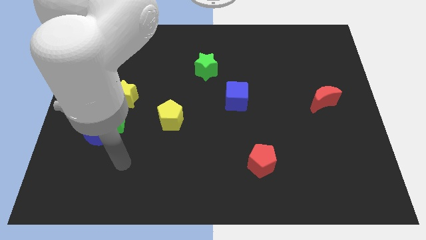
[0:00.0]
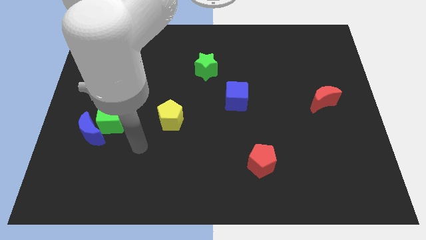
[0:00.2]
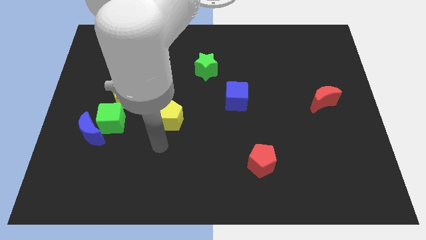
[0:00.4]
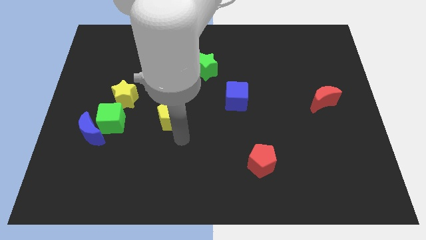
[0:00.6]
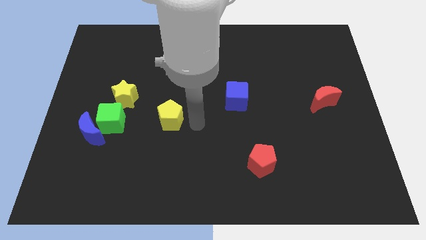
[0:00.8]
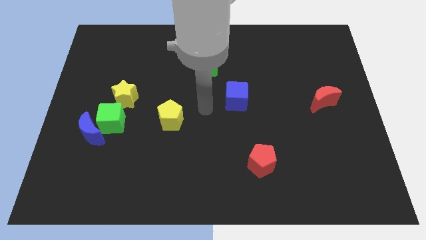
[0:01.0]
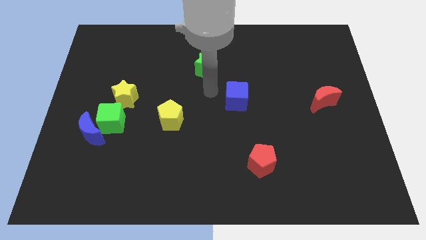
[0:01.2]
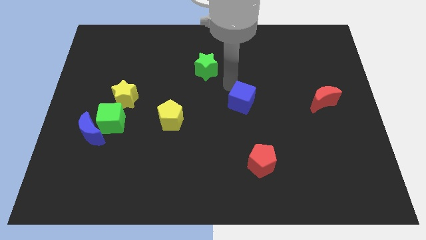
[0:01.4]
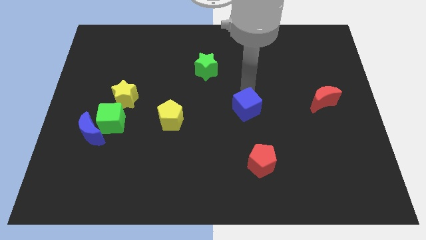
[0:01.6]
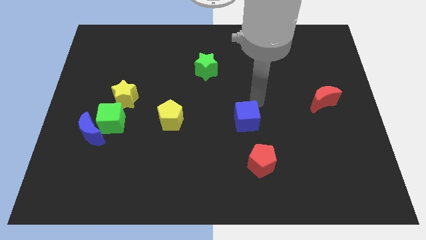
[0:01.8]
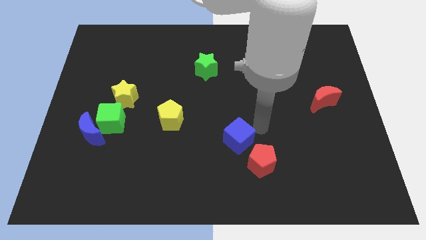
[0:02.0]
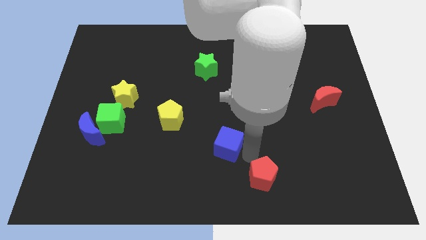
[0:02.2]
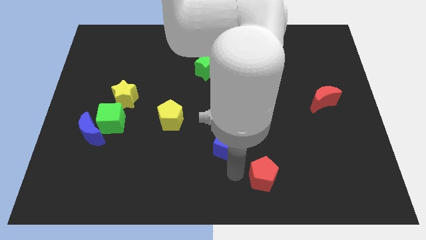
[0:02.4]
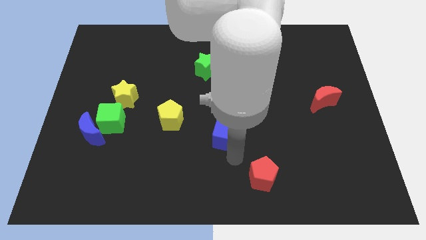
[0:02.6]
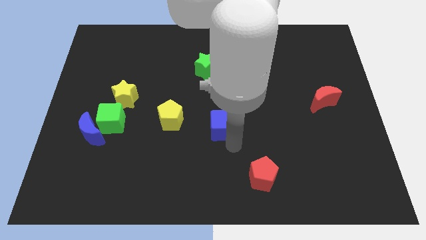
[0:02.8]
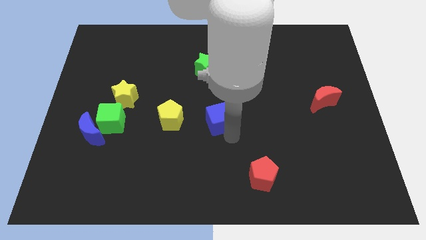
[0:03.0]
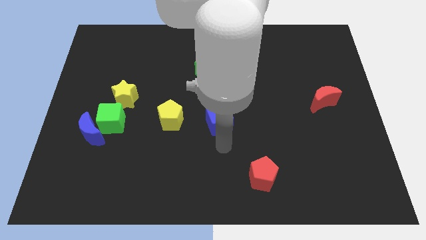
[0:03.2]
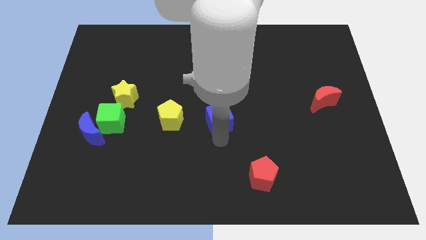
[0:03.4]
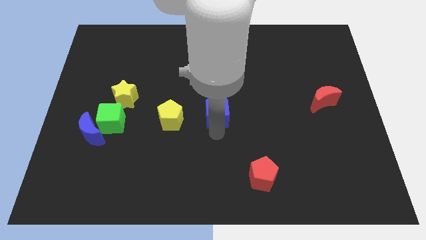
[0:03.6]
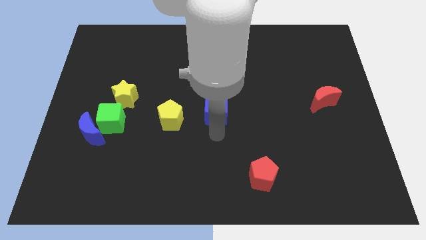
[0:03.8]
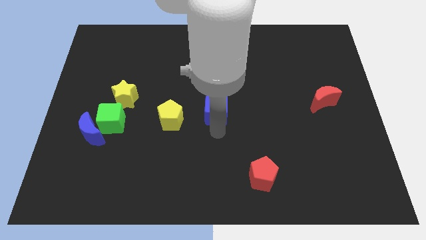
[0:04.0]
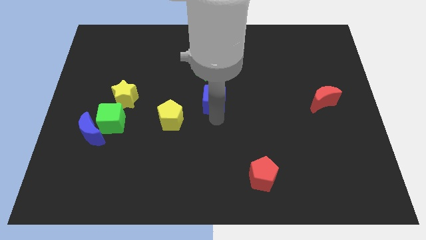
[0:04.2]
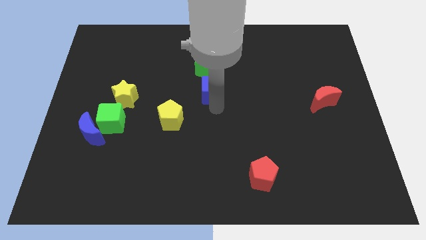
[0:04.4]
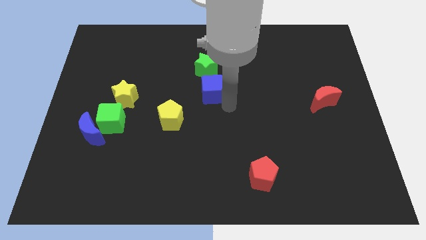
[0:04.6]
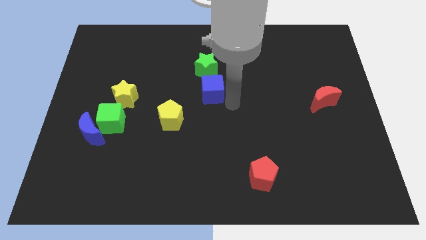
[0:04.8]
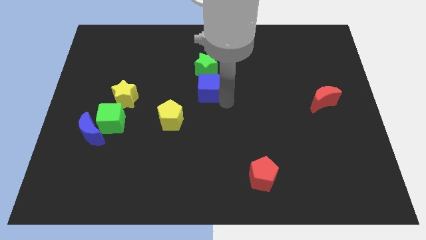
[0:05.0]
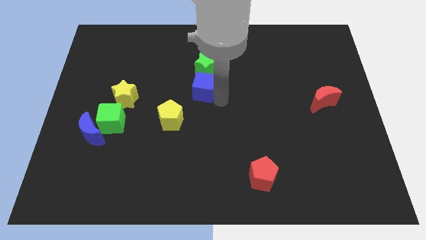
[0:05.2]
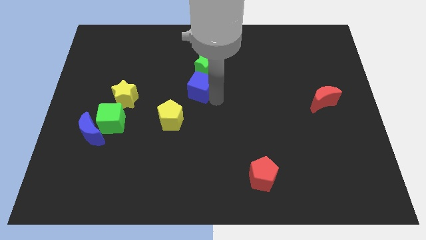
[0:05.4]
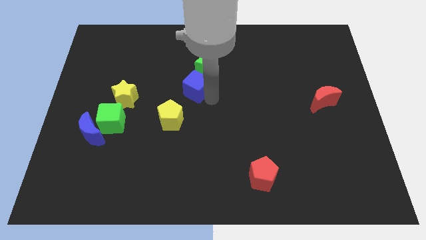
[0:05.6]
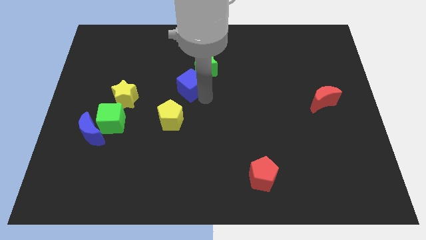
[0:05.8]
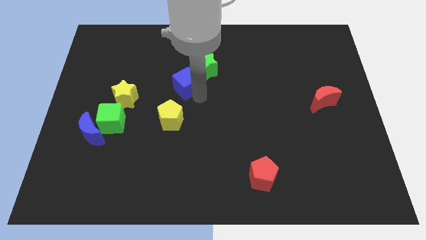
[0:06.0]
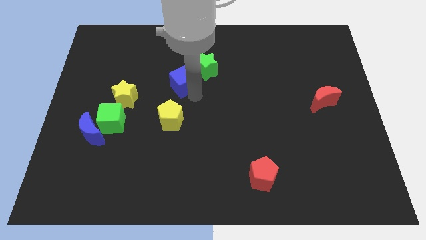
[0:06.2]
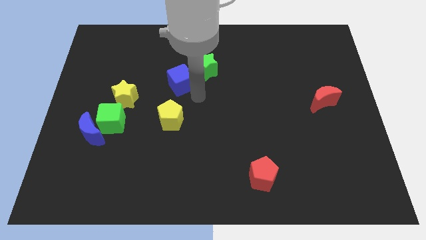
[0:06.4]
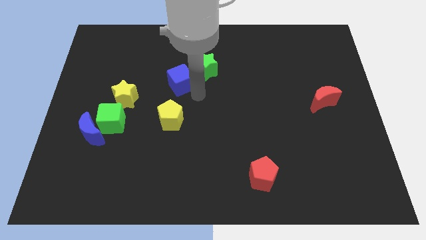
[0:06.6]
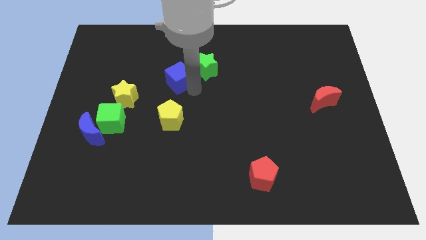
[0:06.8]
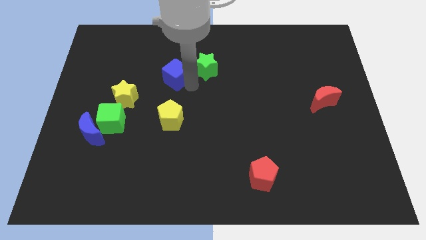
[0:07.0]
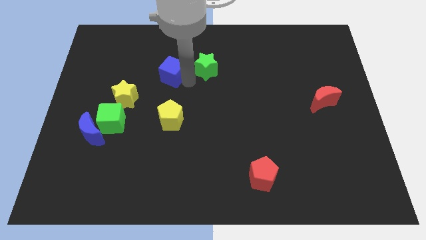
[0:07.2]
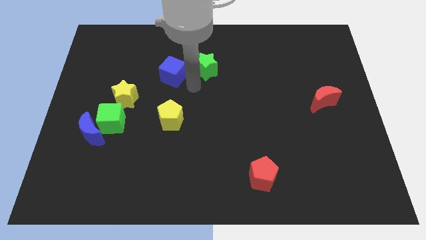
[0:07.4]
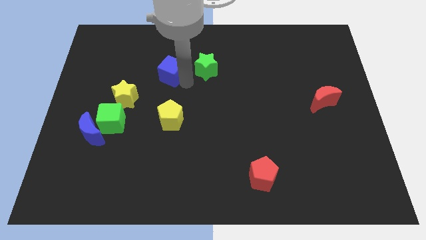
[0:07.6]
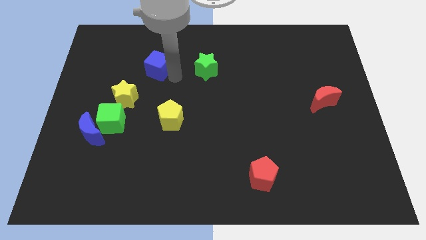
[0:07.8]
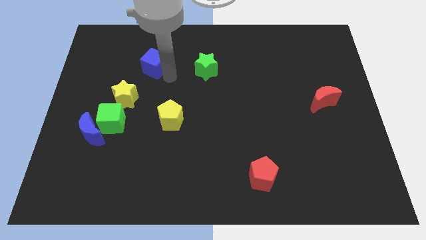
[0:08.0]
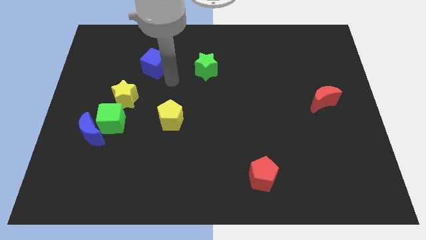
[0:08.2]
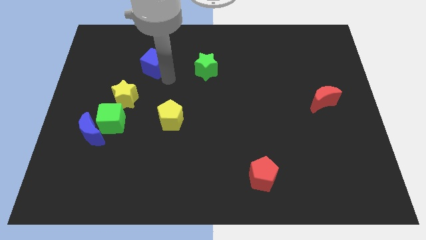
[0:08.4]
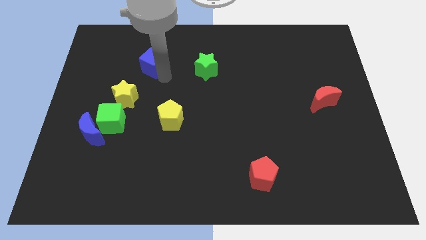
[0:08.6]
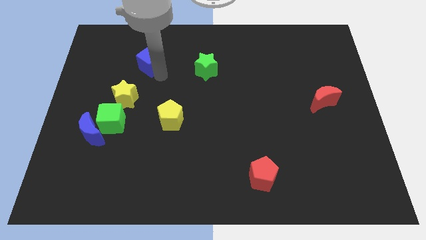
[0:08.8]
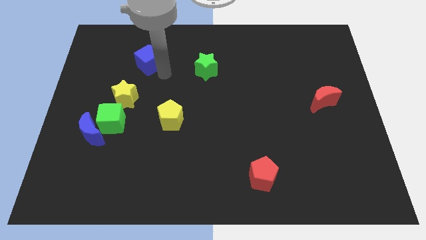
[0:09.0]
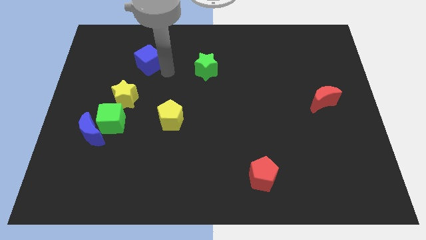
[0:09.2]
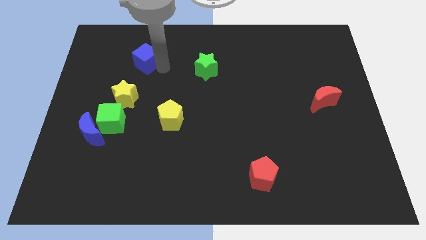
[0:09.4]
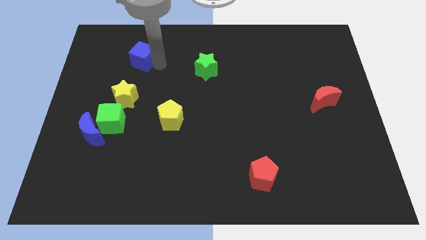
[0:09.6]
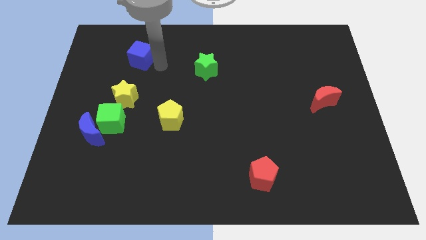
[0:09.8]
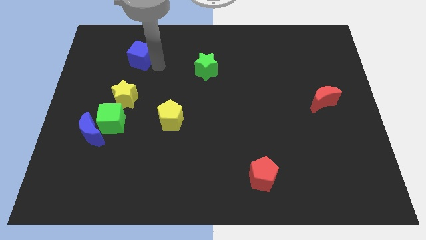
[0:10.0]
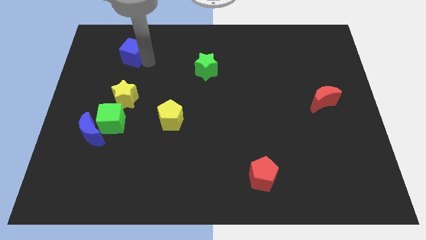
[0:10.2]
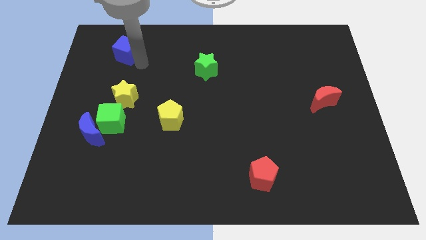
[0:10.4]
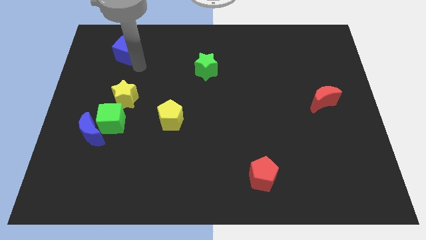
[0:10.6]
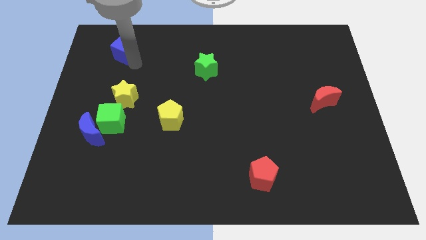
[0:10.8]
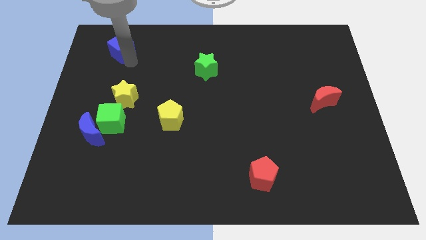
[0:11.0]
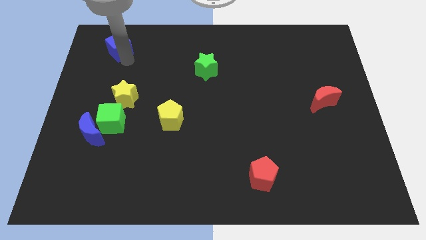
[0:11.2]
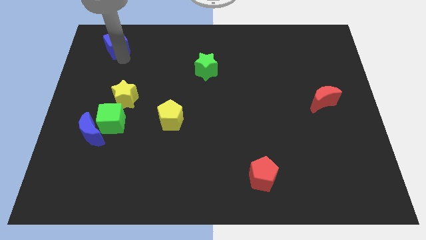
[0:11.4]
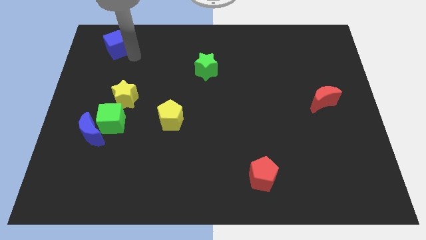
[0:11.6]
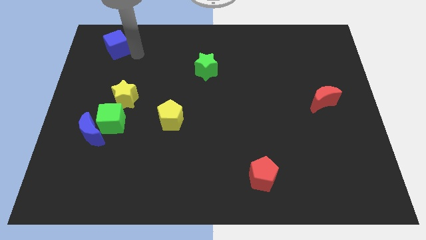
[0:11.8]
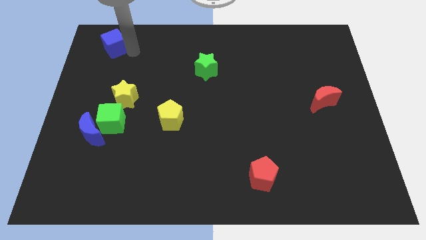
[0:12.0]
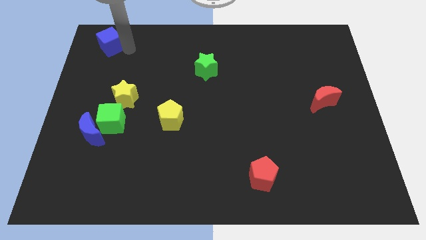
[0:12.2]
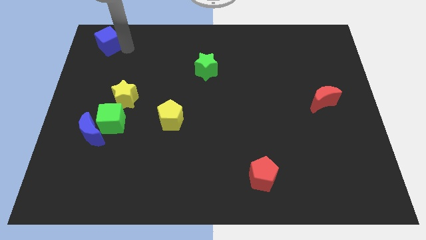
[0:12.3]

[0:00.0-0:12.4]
push the blue cube to the top left of the board
